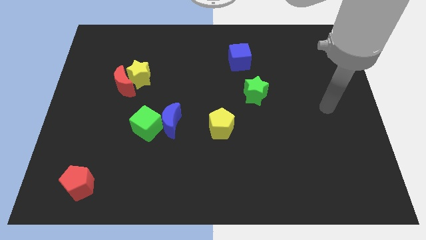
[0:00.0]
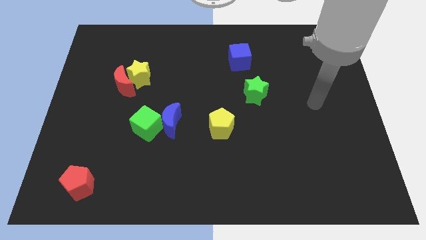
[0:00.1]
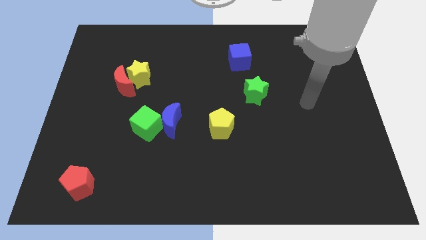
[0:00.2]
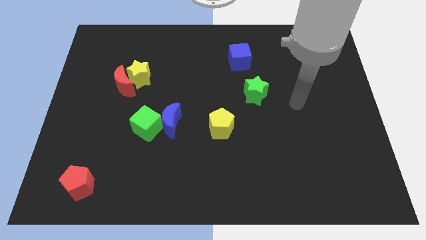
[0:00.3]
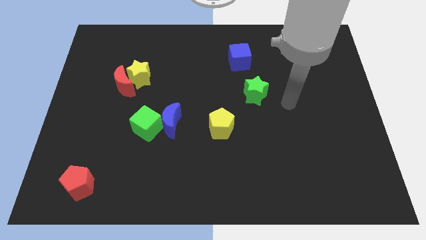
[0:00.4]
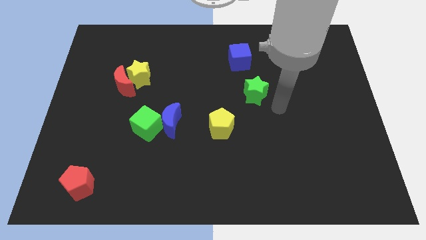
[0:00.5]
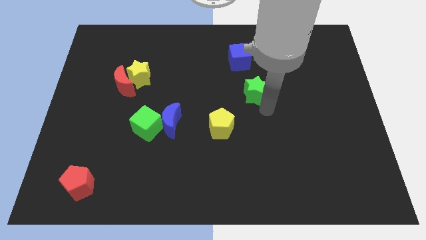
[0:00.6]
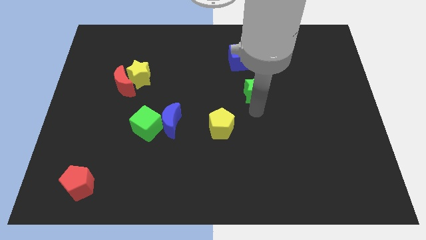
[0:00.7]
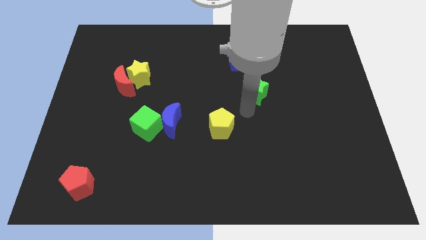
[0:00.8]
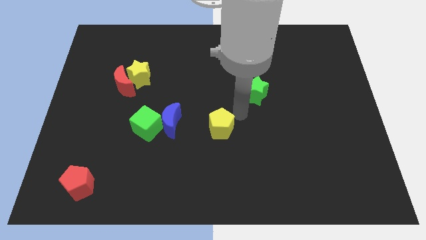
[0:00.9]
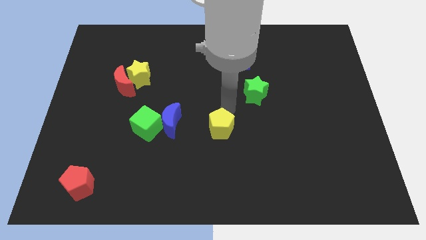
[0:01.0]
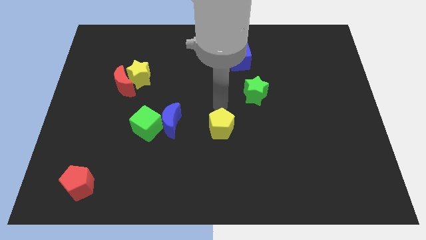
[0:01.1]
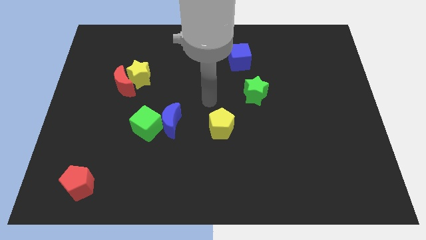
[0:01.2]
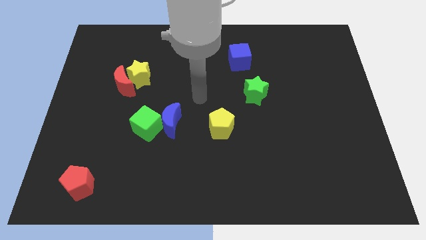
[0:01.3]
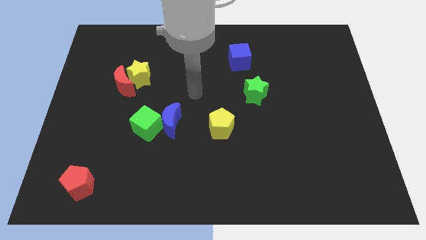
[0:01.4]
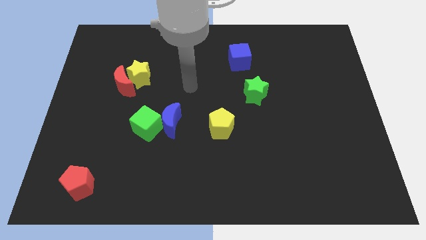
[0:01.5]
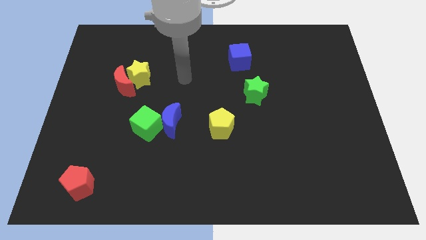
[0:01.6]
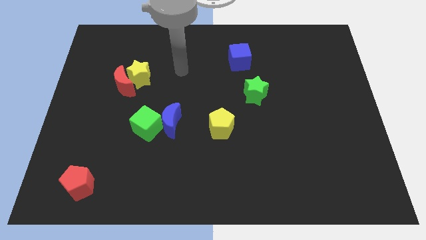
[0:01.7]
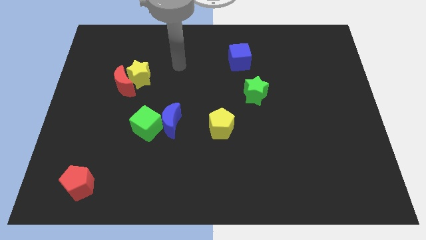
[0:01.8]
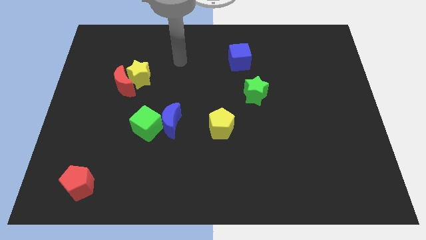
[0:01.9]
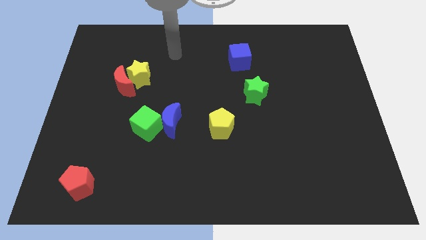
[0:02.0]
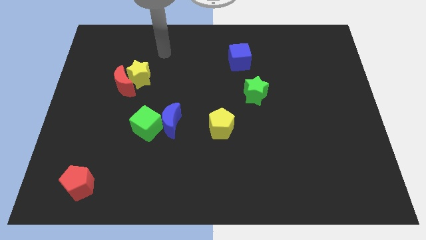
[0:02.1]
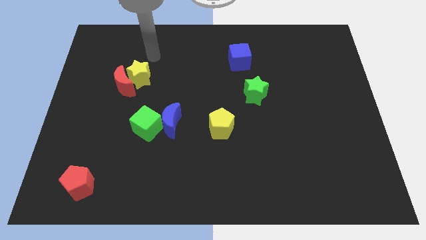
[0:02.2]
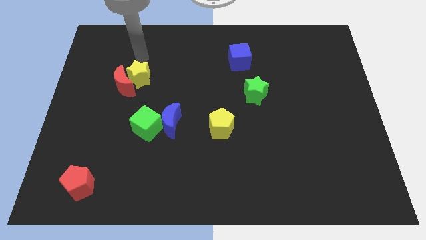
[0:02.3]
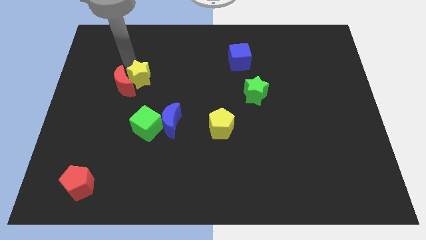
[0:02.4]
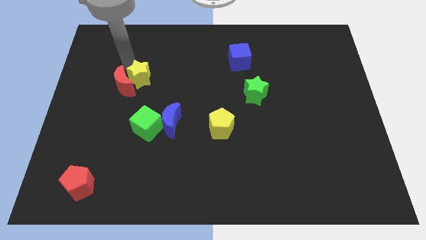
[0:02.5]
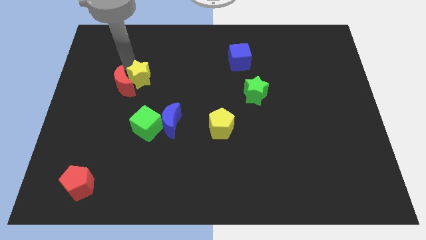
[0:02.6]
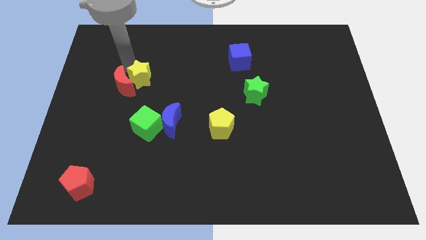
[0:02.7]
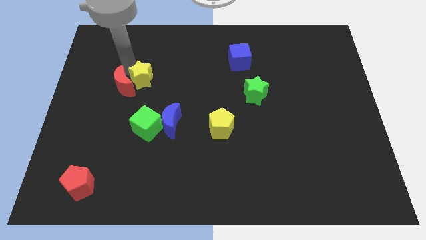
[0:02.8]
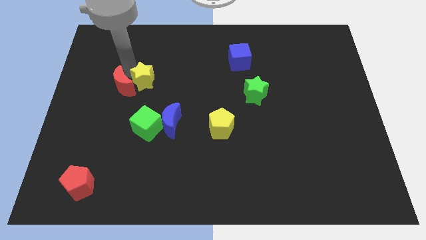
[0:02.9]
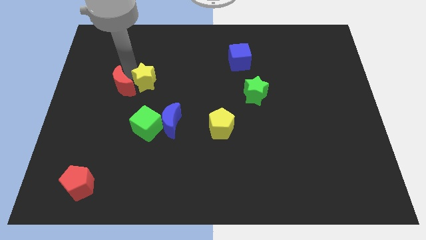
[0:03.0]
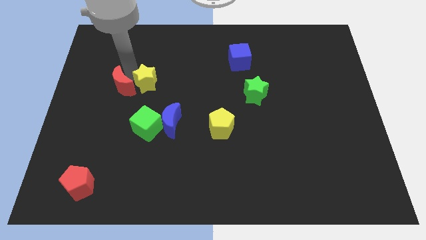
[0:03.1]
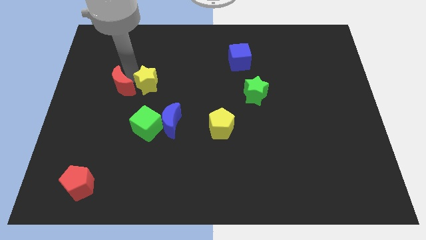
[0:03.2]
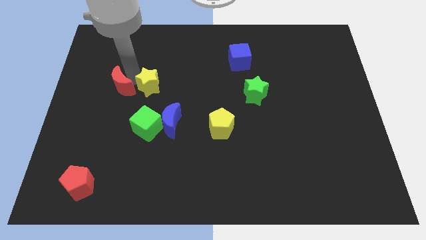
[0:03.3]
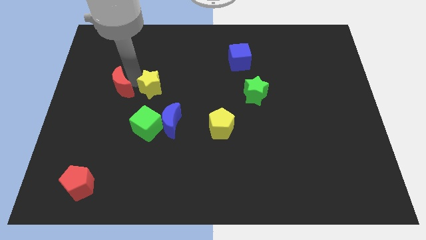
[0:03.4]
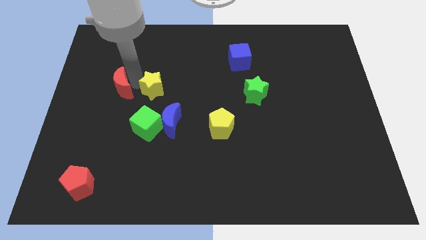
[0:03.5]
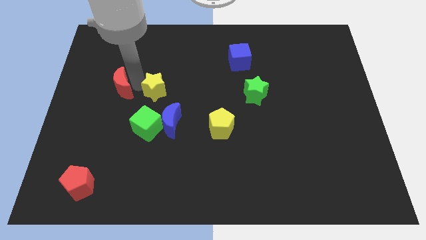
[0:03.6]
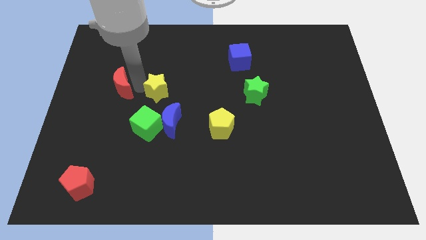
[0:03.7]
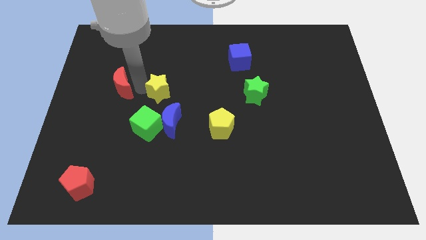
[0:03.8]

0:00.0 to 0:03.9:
slide the yellow star down and to the right diagonally slightly

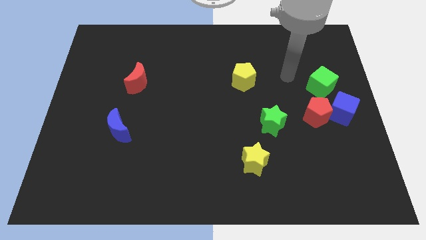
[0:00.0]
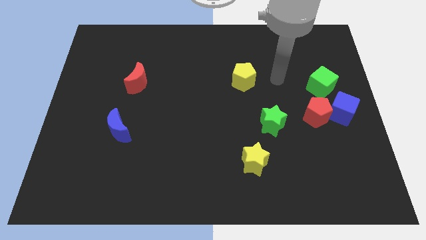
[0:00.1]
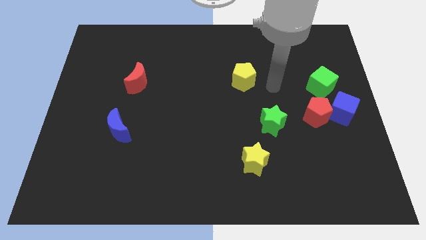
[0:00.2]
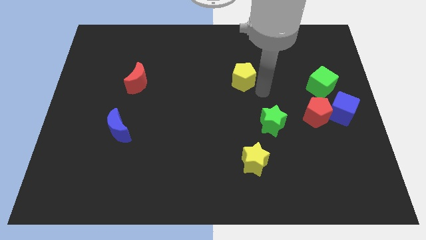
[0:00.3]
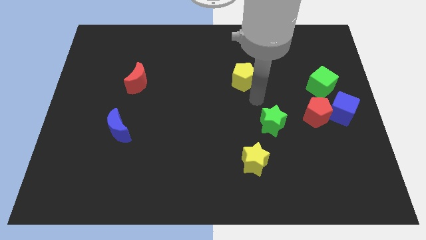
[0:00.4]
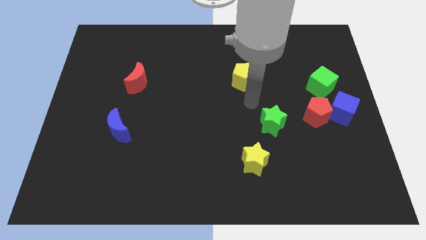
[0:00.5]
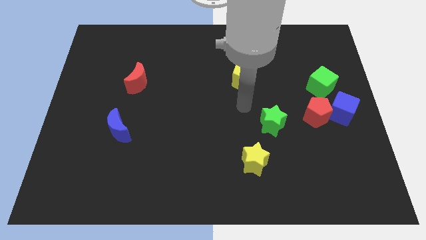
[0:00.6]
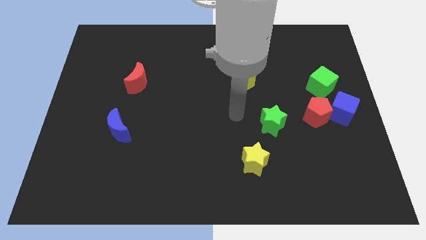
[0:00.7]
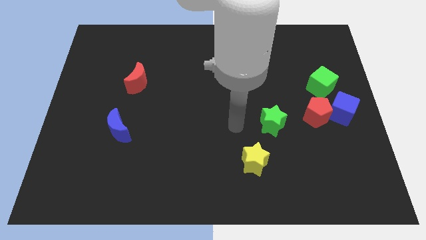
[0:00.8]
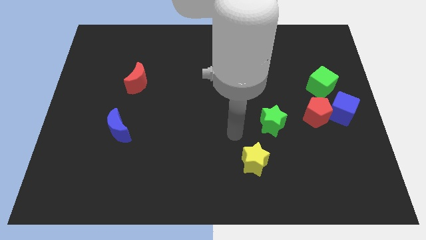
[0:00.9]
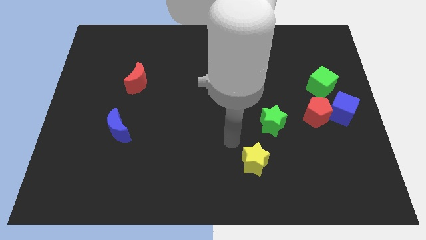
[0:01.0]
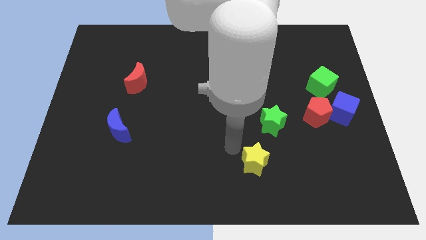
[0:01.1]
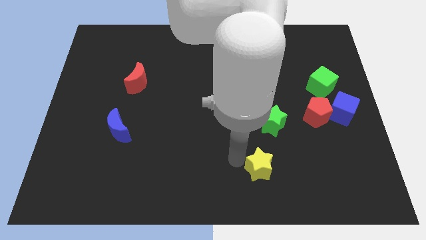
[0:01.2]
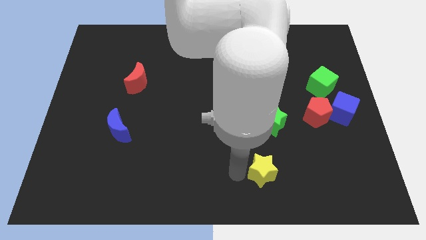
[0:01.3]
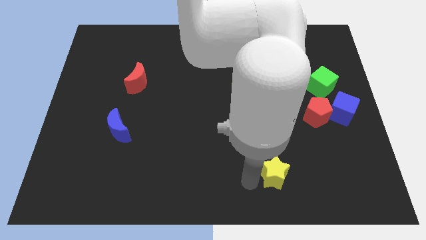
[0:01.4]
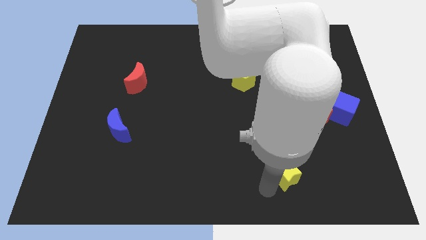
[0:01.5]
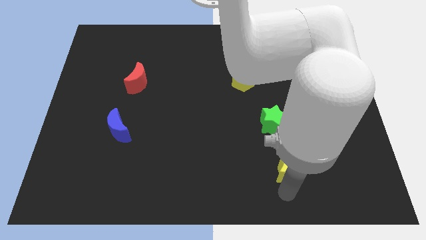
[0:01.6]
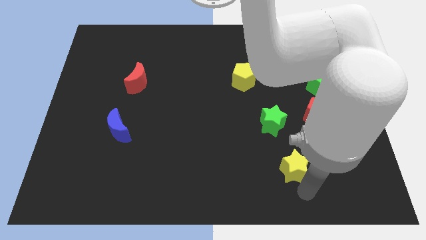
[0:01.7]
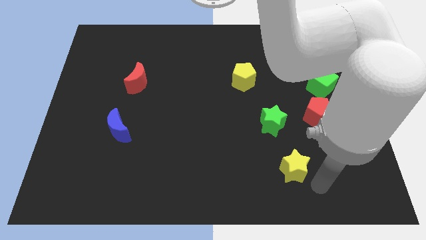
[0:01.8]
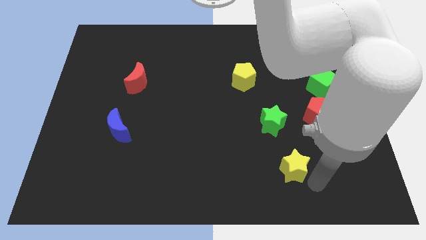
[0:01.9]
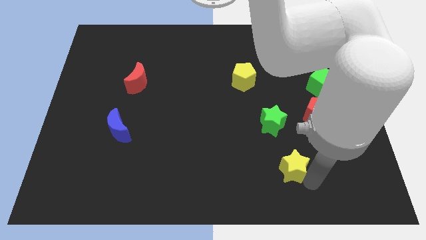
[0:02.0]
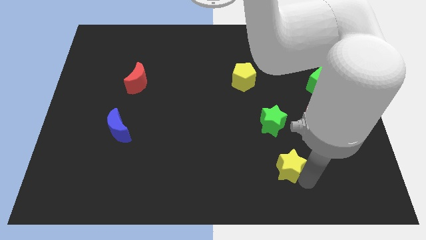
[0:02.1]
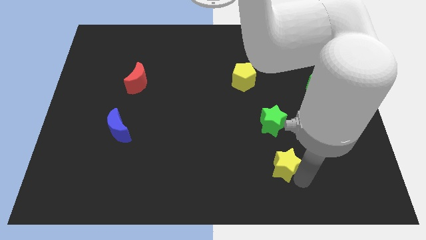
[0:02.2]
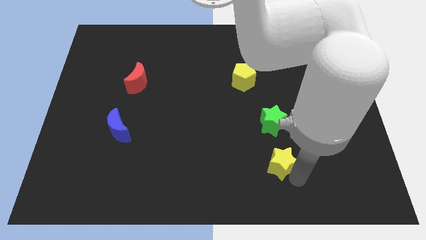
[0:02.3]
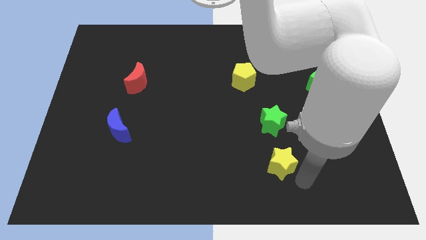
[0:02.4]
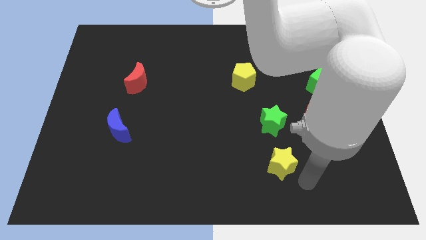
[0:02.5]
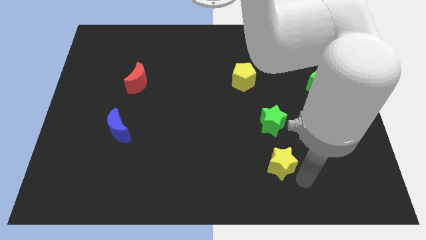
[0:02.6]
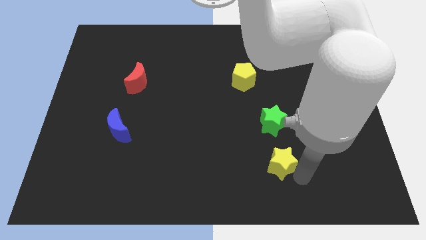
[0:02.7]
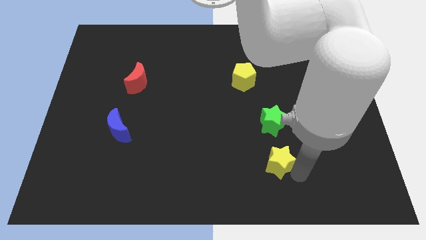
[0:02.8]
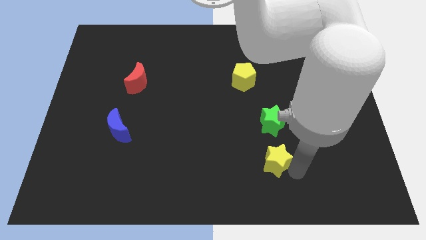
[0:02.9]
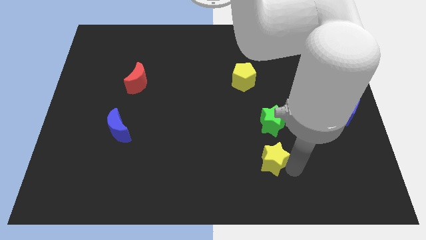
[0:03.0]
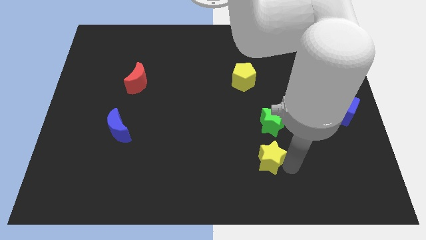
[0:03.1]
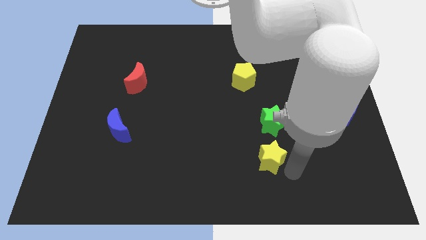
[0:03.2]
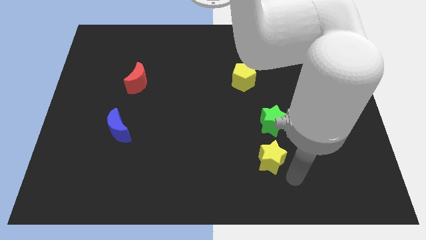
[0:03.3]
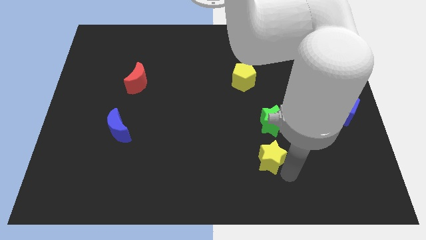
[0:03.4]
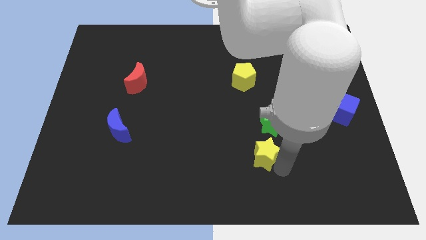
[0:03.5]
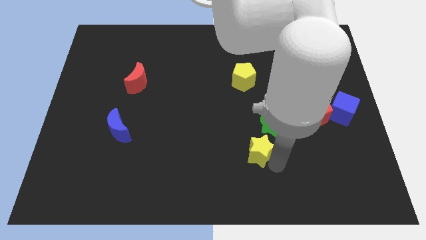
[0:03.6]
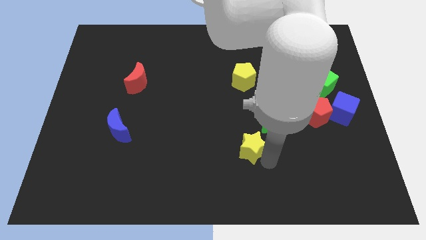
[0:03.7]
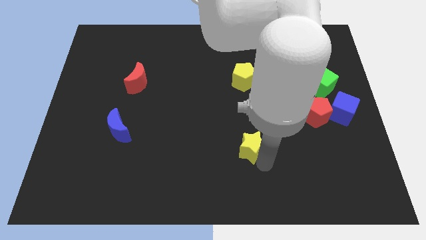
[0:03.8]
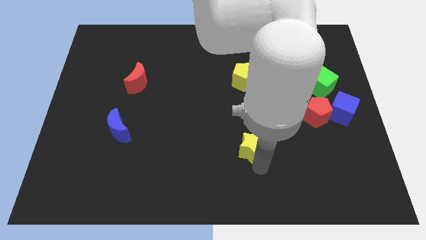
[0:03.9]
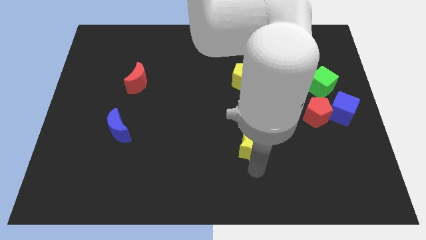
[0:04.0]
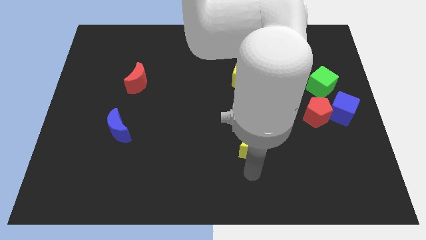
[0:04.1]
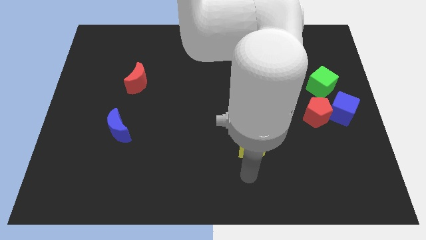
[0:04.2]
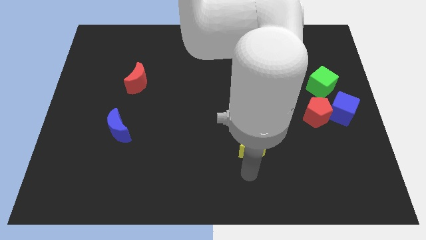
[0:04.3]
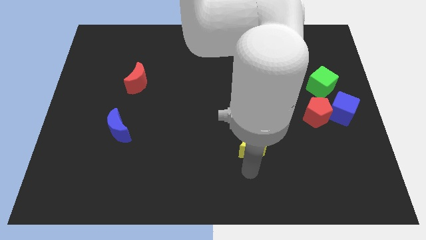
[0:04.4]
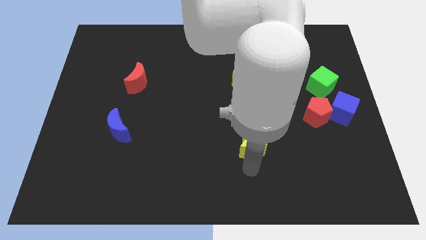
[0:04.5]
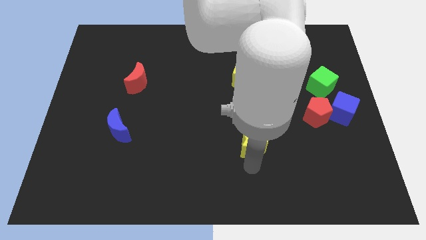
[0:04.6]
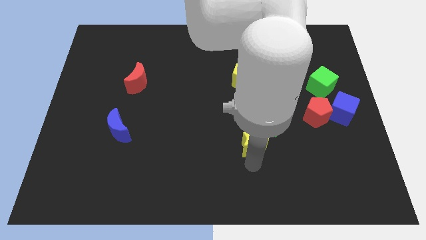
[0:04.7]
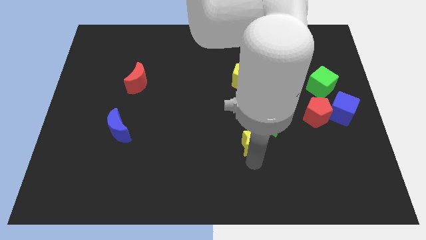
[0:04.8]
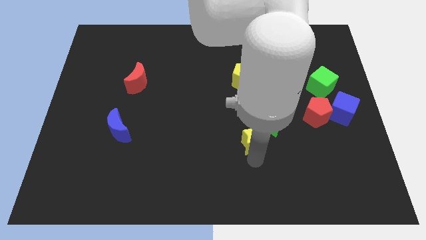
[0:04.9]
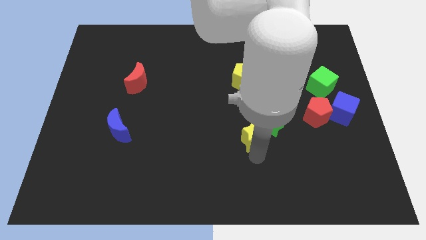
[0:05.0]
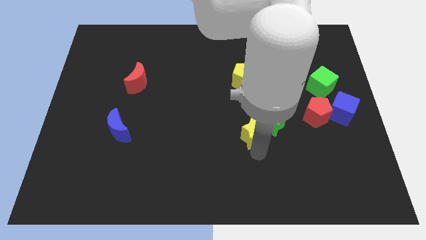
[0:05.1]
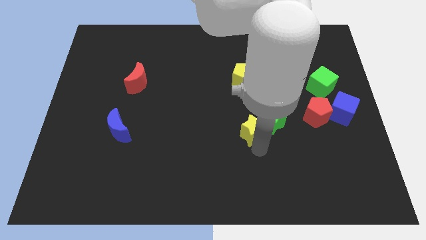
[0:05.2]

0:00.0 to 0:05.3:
push the yellow star upwards a little
